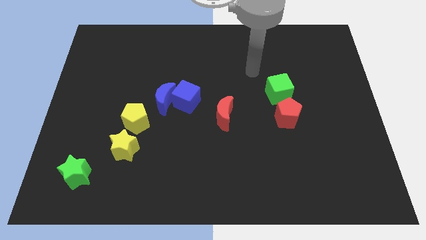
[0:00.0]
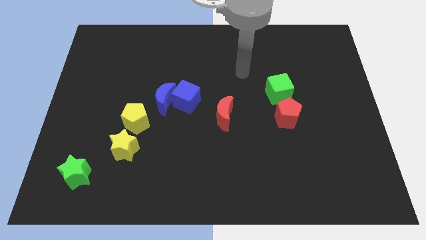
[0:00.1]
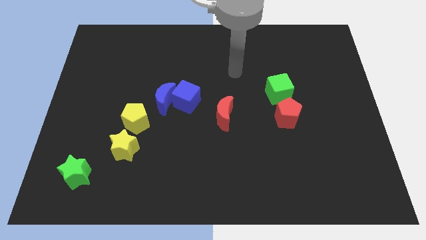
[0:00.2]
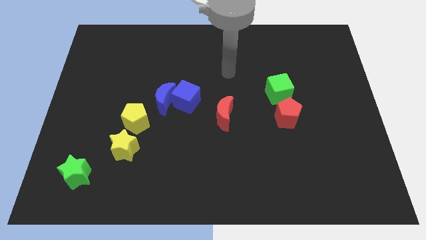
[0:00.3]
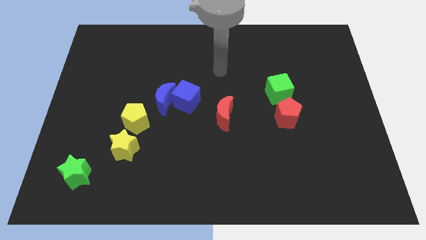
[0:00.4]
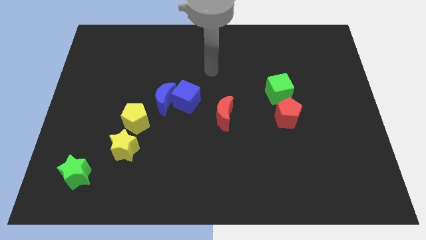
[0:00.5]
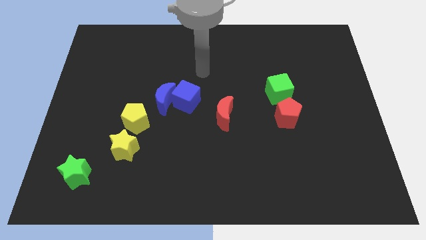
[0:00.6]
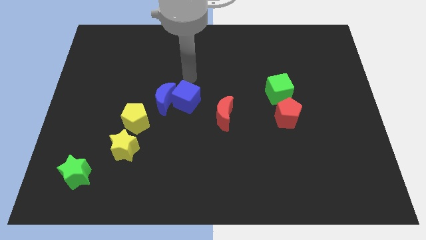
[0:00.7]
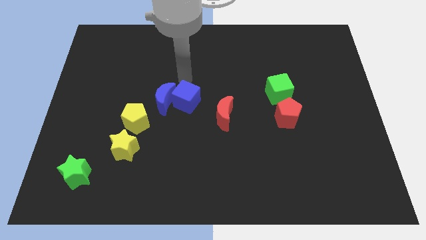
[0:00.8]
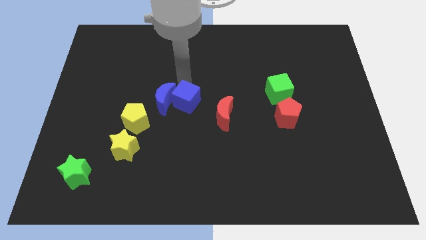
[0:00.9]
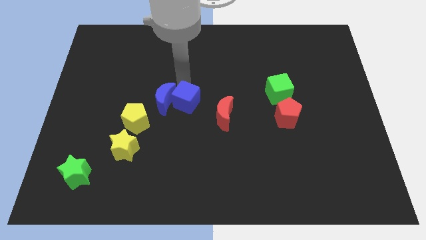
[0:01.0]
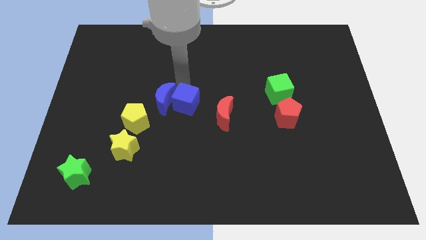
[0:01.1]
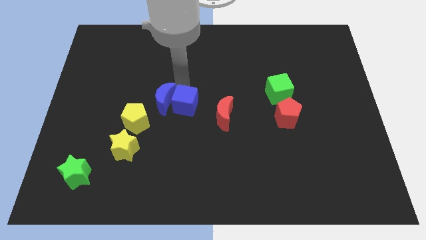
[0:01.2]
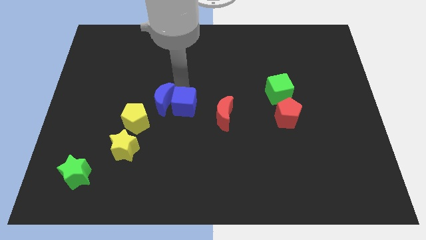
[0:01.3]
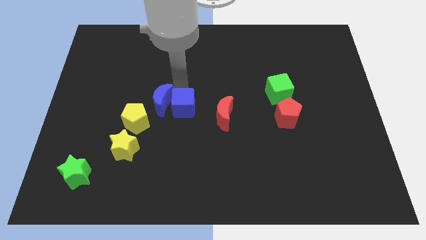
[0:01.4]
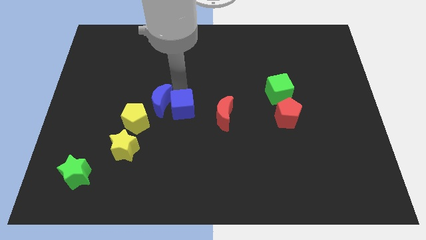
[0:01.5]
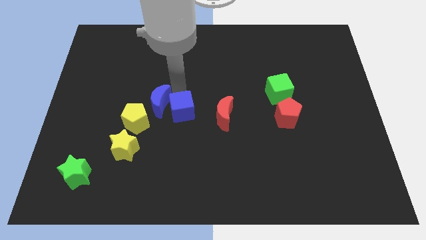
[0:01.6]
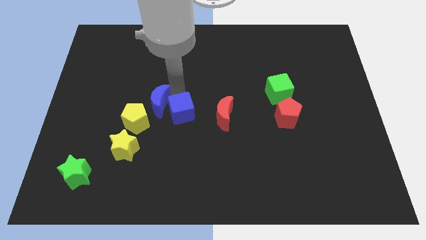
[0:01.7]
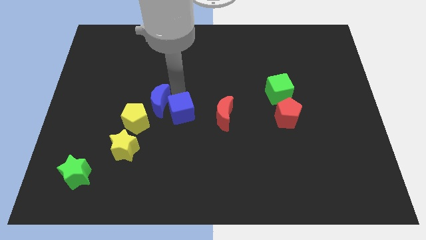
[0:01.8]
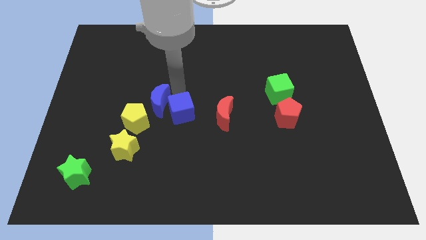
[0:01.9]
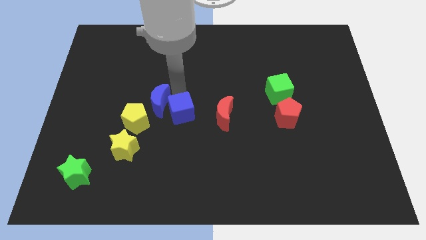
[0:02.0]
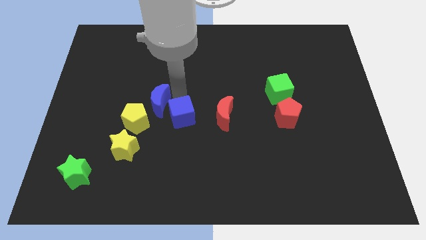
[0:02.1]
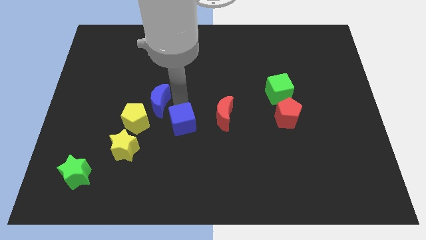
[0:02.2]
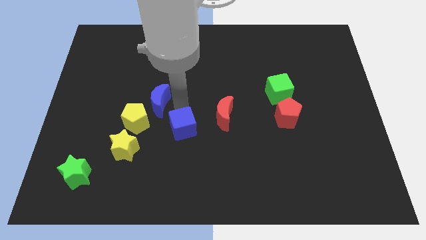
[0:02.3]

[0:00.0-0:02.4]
slide the blue cube a bit down

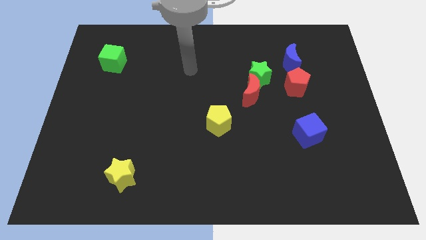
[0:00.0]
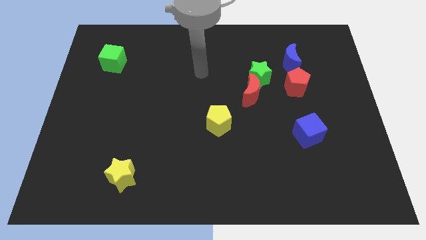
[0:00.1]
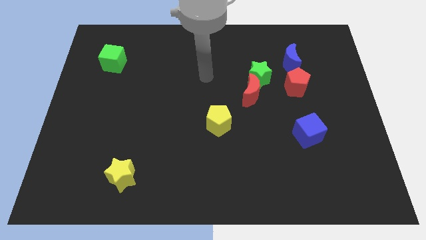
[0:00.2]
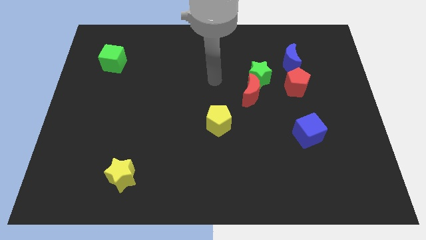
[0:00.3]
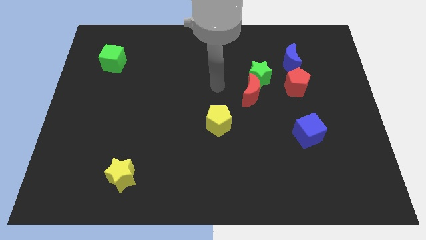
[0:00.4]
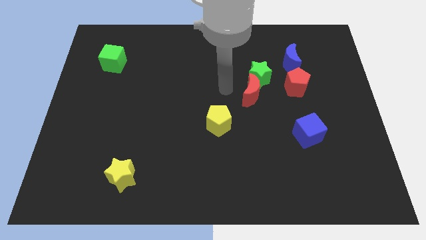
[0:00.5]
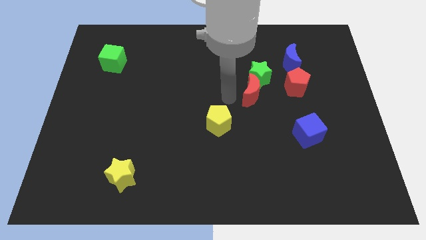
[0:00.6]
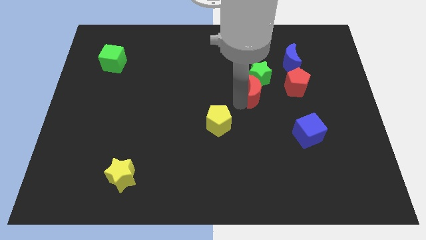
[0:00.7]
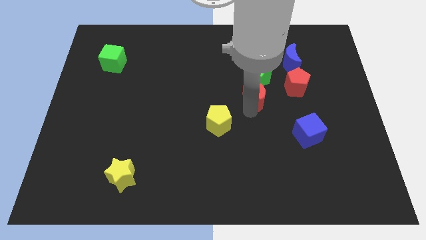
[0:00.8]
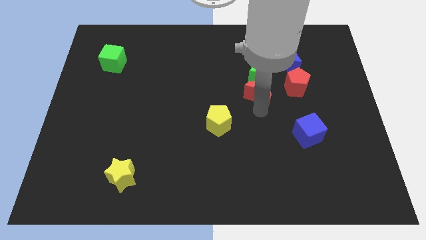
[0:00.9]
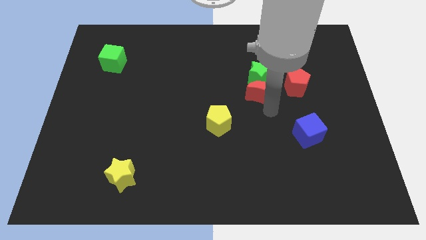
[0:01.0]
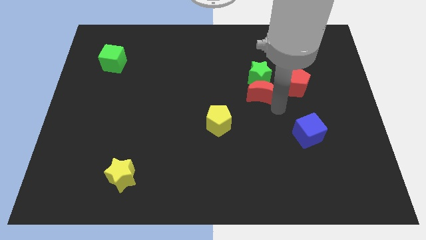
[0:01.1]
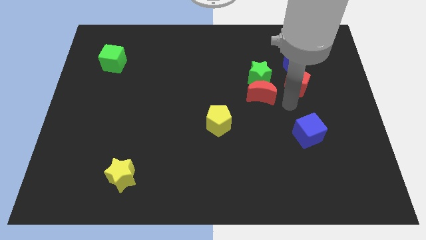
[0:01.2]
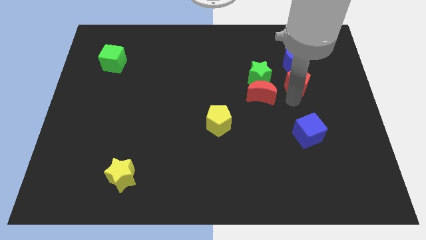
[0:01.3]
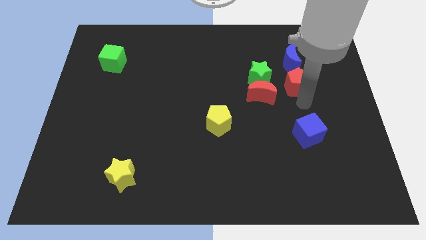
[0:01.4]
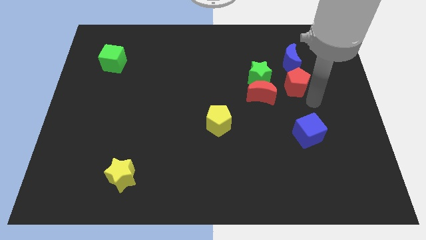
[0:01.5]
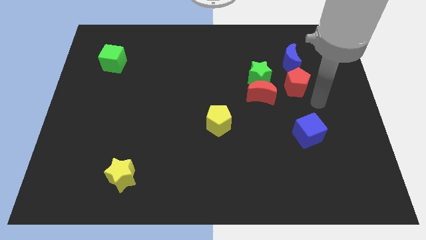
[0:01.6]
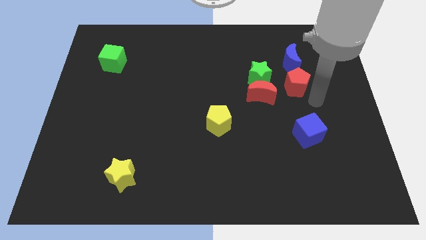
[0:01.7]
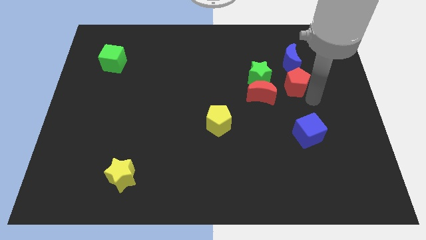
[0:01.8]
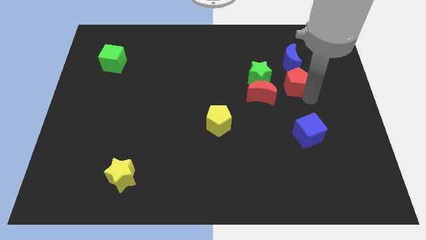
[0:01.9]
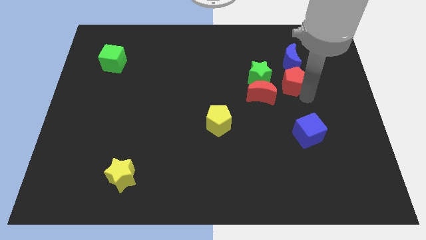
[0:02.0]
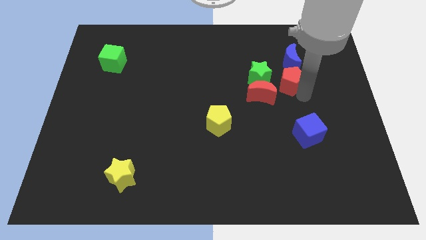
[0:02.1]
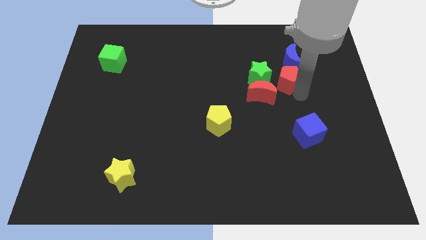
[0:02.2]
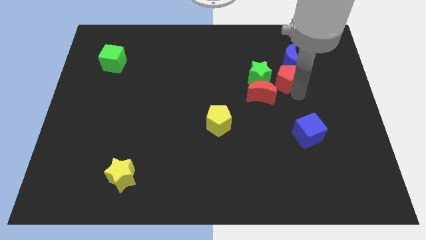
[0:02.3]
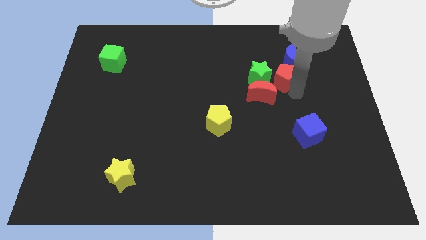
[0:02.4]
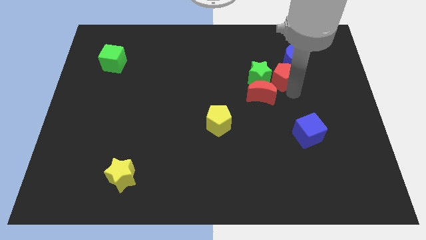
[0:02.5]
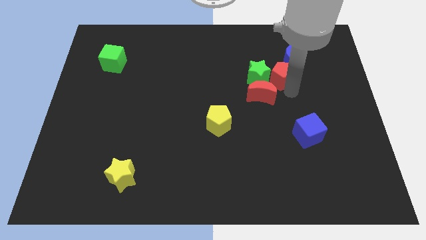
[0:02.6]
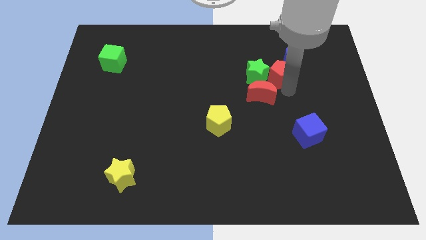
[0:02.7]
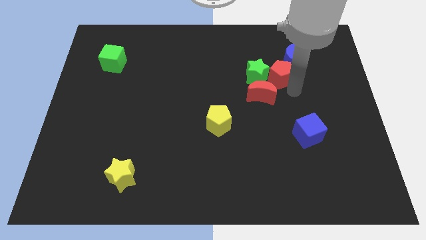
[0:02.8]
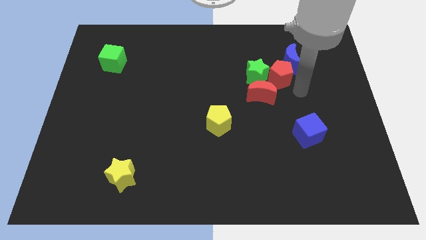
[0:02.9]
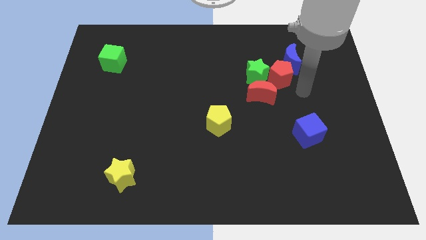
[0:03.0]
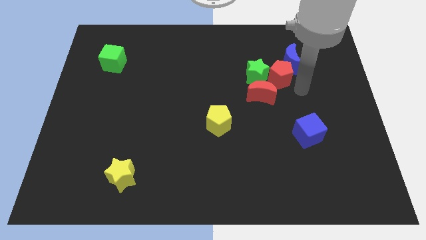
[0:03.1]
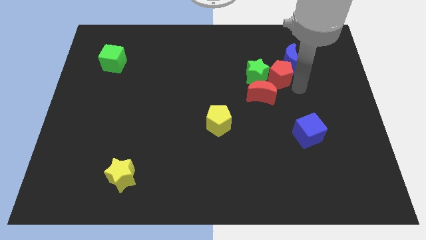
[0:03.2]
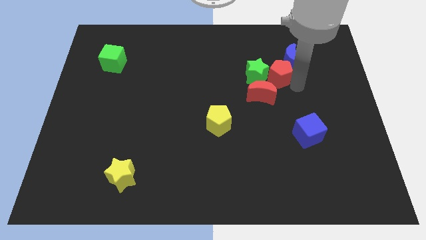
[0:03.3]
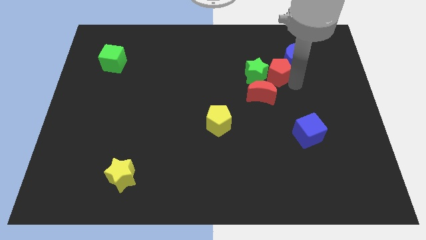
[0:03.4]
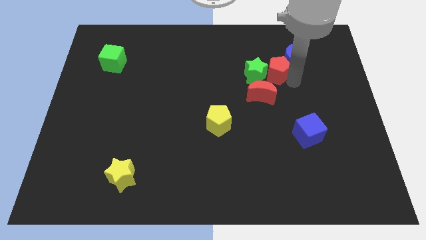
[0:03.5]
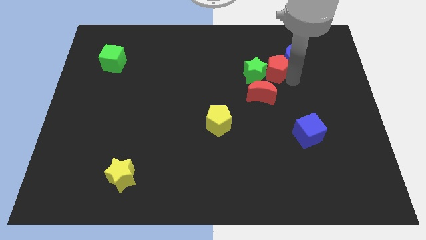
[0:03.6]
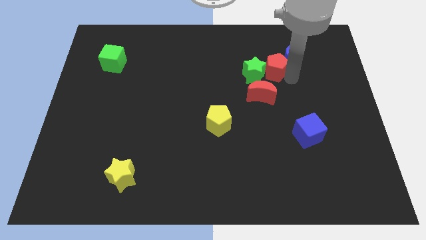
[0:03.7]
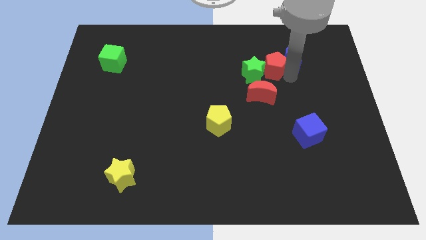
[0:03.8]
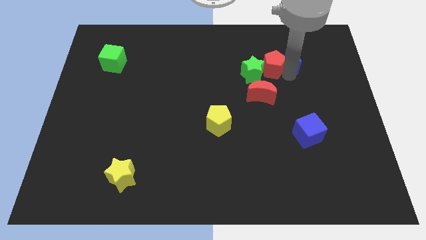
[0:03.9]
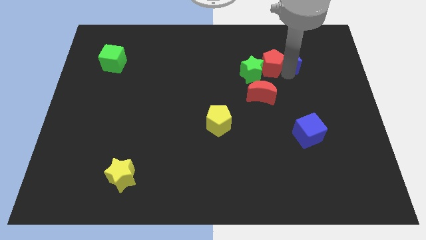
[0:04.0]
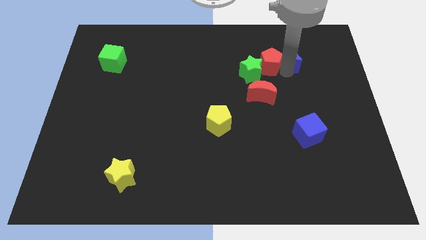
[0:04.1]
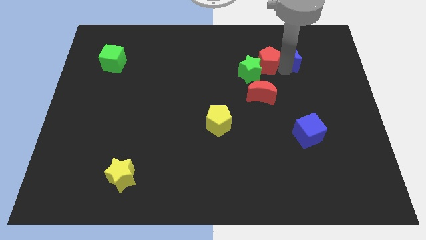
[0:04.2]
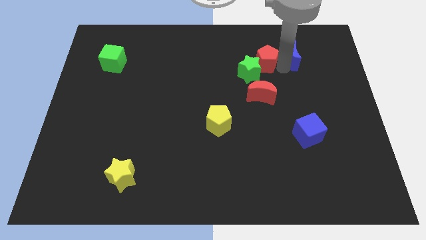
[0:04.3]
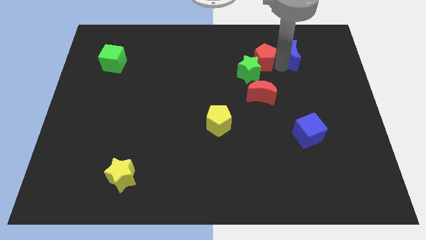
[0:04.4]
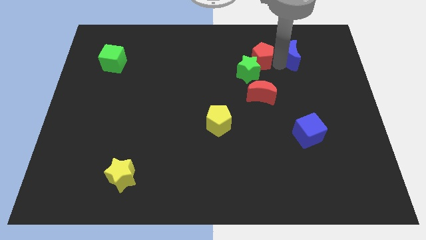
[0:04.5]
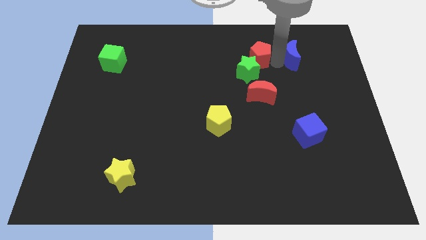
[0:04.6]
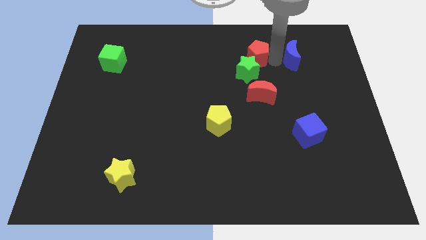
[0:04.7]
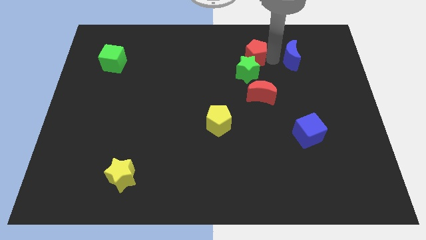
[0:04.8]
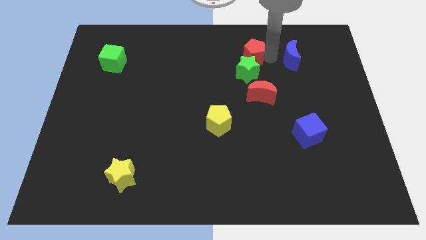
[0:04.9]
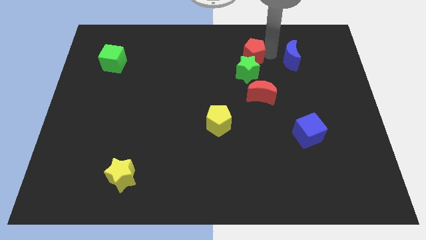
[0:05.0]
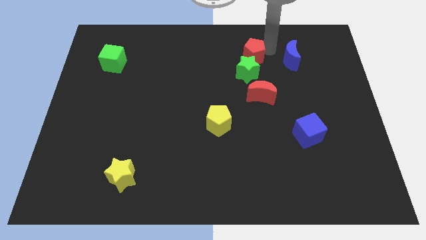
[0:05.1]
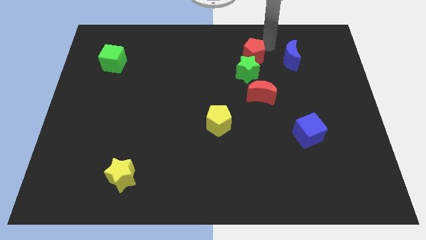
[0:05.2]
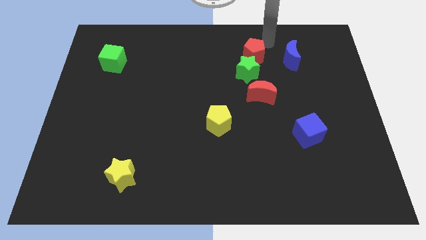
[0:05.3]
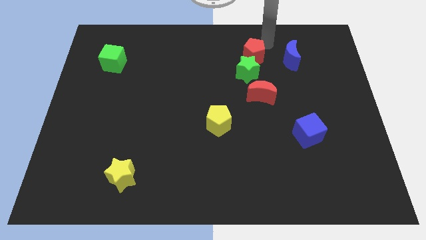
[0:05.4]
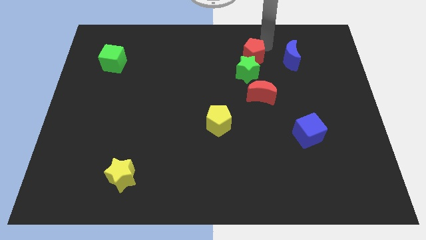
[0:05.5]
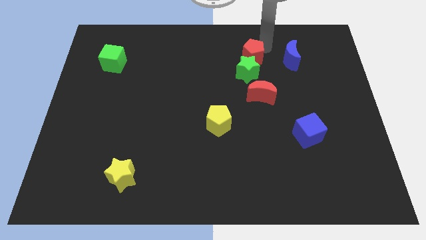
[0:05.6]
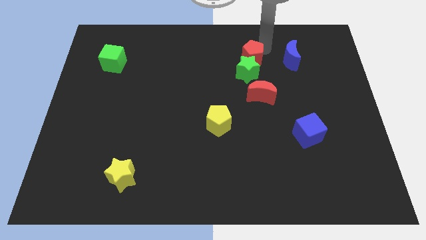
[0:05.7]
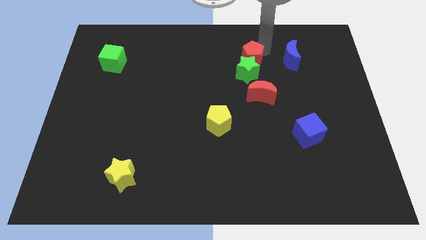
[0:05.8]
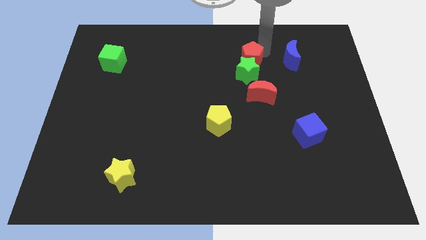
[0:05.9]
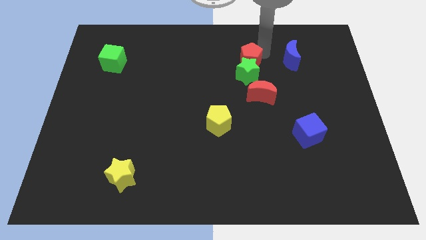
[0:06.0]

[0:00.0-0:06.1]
slightly slide the red pentagon left
